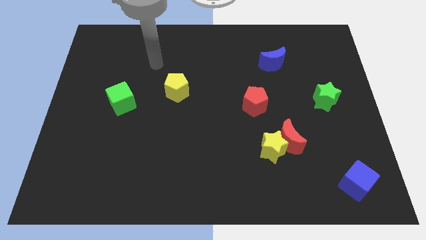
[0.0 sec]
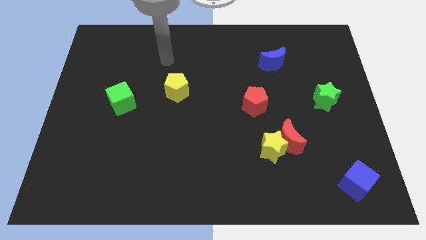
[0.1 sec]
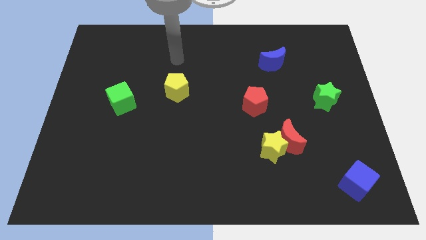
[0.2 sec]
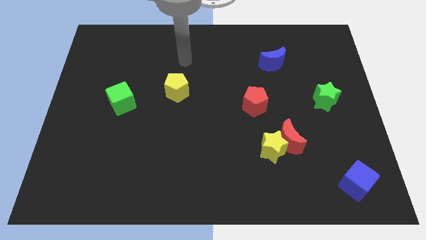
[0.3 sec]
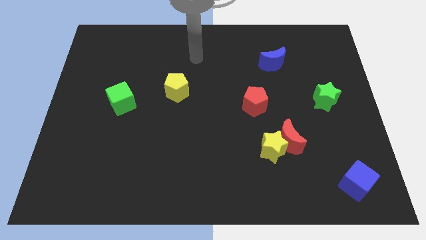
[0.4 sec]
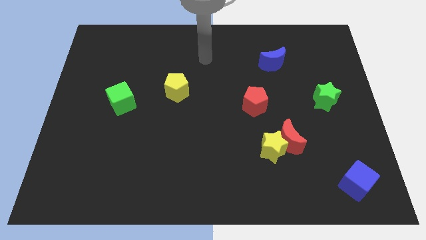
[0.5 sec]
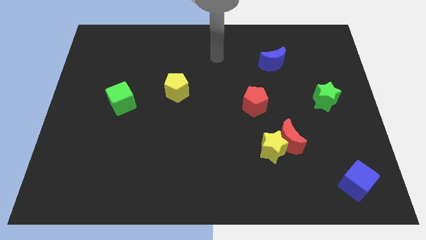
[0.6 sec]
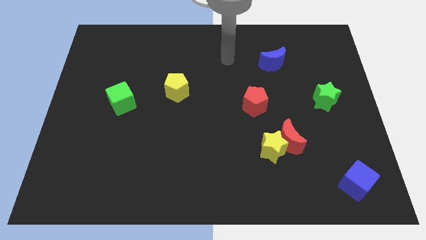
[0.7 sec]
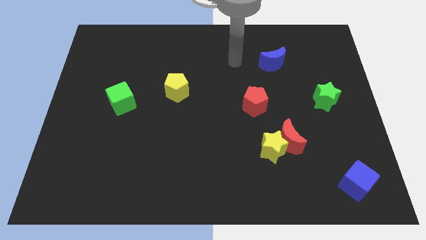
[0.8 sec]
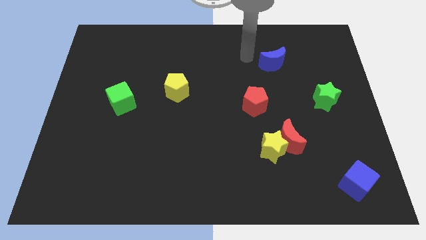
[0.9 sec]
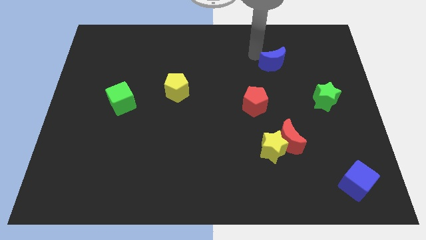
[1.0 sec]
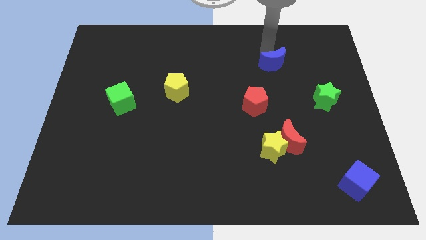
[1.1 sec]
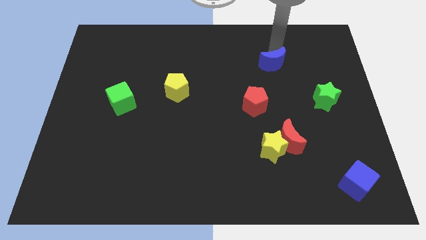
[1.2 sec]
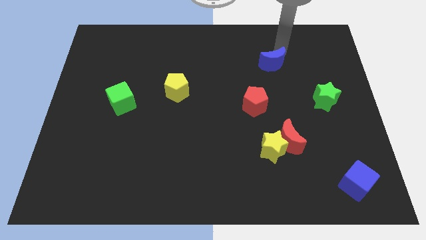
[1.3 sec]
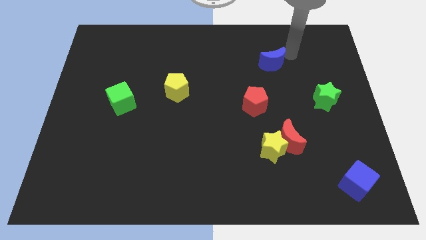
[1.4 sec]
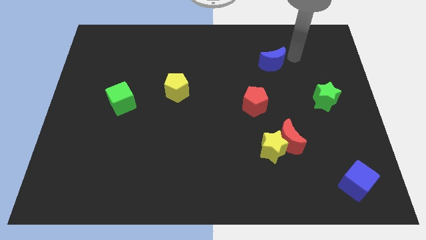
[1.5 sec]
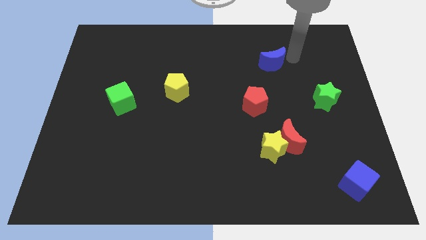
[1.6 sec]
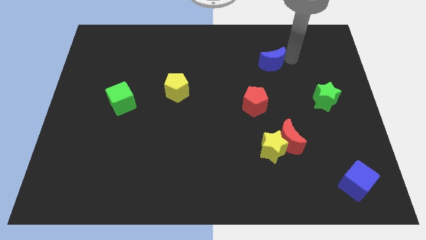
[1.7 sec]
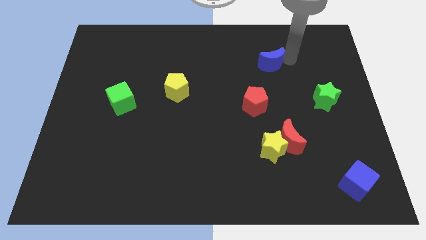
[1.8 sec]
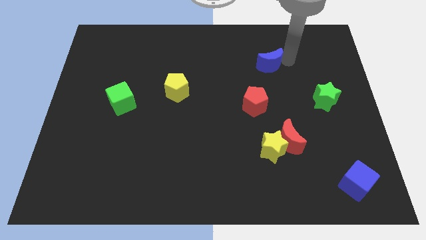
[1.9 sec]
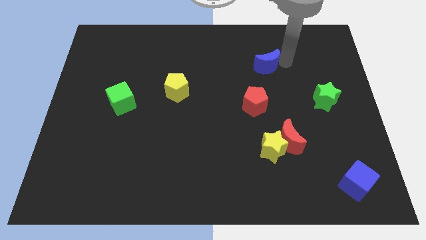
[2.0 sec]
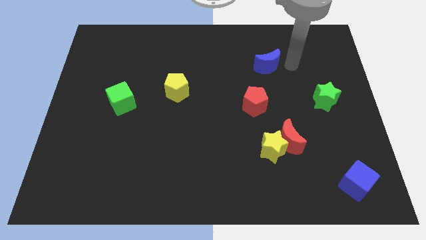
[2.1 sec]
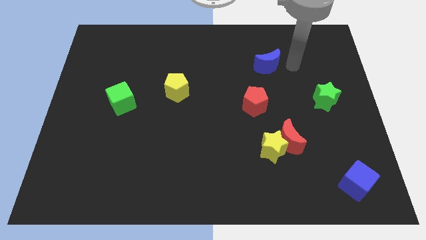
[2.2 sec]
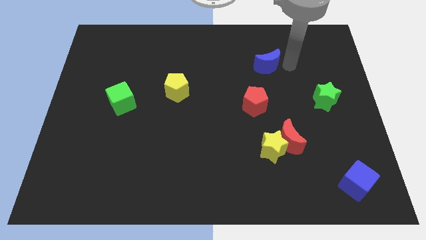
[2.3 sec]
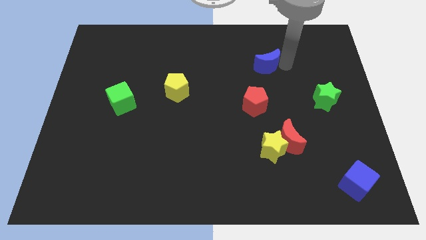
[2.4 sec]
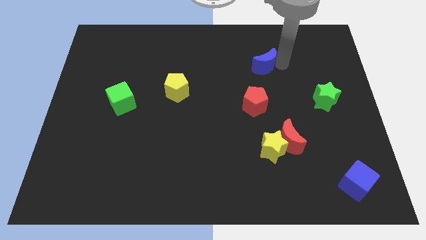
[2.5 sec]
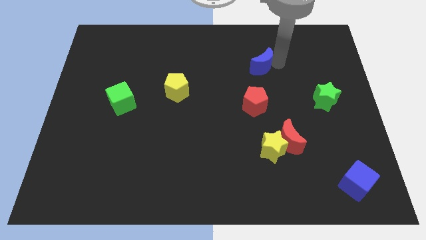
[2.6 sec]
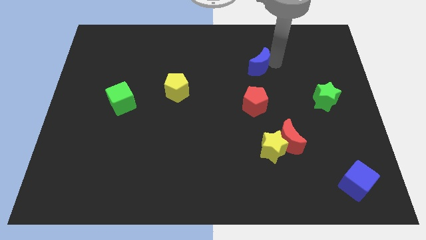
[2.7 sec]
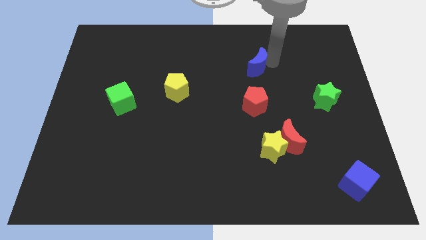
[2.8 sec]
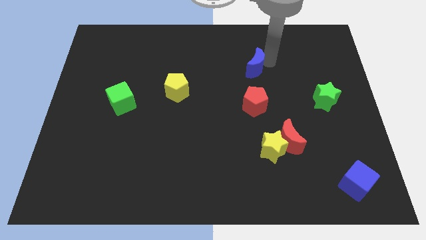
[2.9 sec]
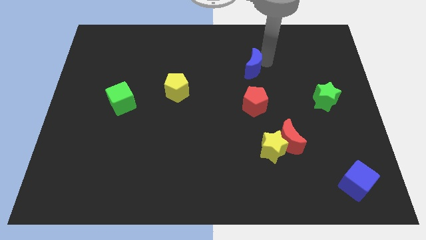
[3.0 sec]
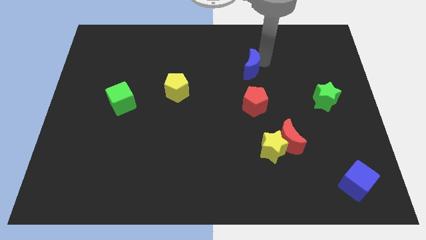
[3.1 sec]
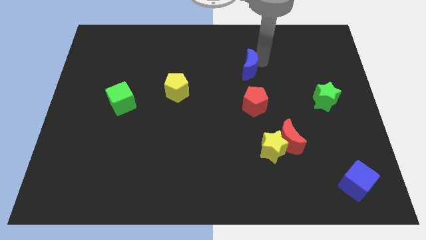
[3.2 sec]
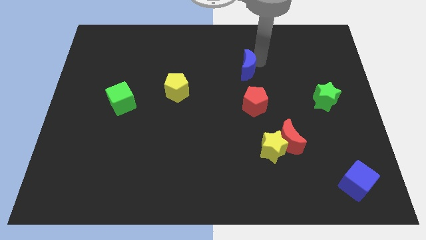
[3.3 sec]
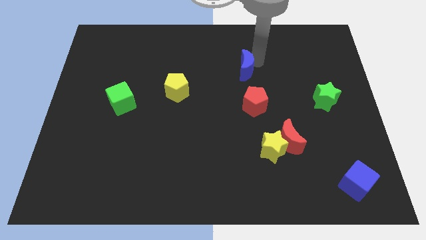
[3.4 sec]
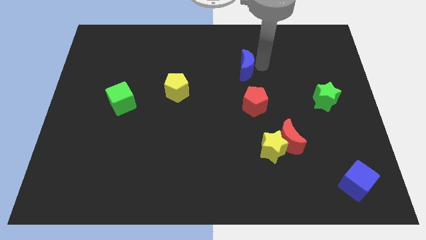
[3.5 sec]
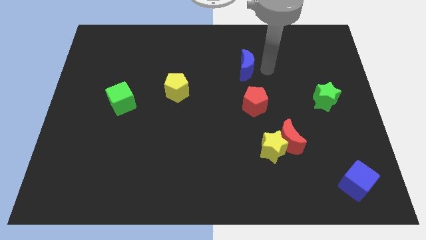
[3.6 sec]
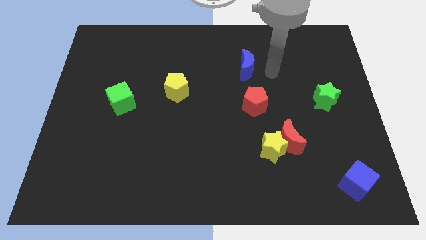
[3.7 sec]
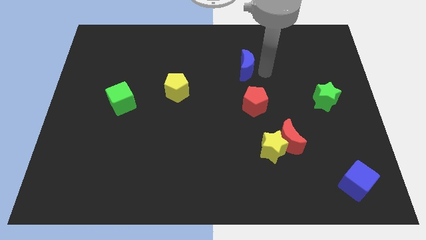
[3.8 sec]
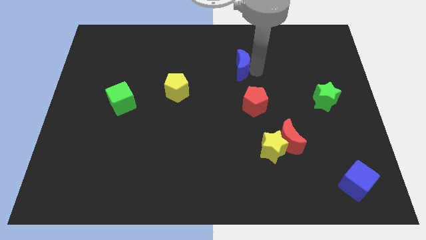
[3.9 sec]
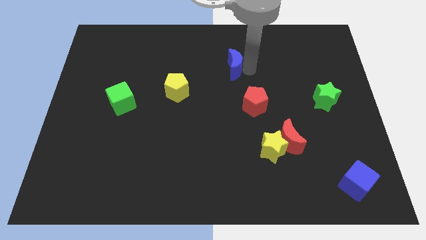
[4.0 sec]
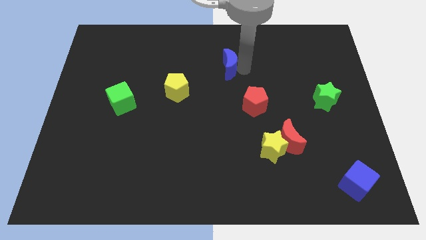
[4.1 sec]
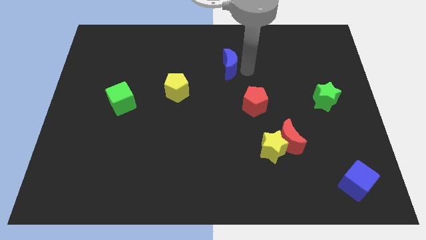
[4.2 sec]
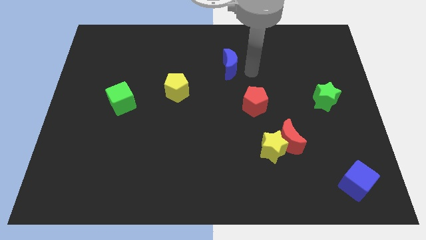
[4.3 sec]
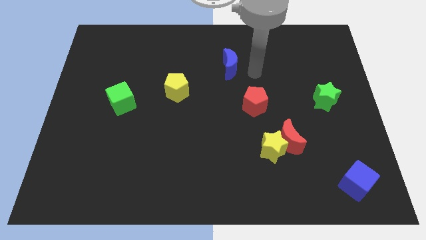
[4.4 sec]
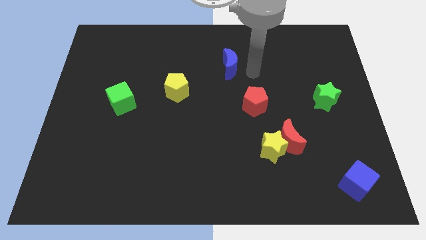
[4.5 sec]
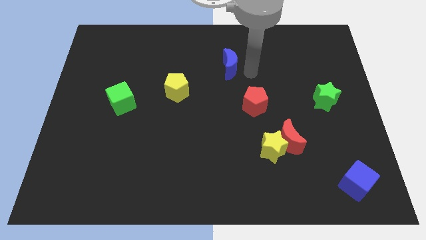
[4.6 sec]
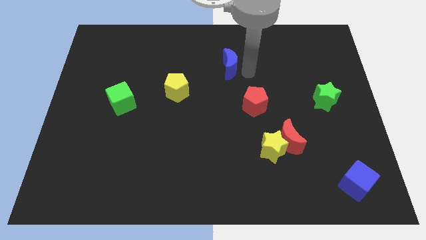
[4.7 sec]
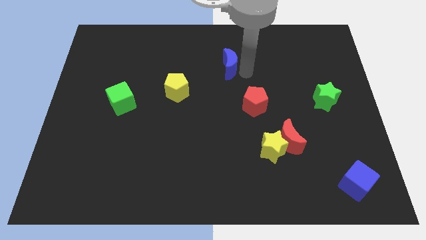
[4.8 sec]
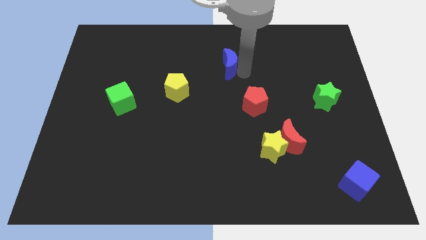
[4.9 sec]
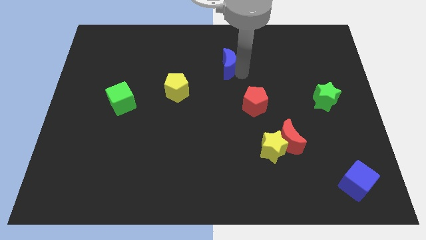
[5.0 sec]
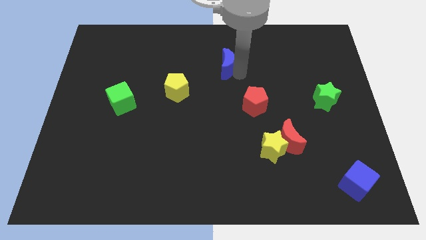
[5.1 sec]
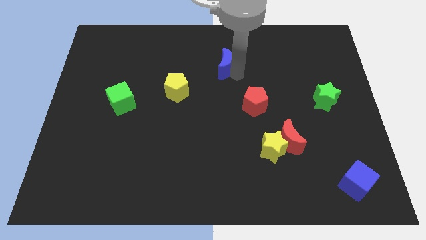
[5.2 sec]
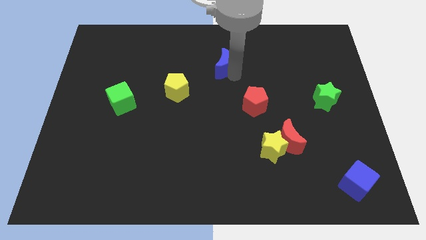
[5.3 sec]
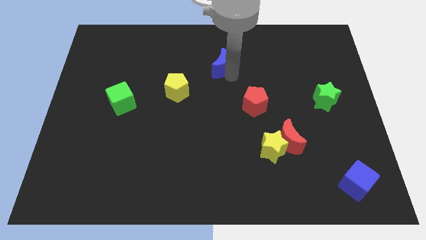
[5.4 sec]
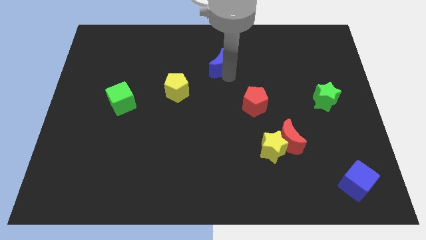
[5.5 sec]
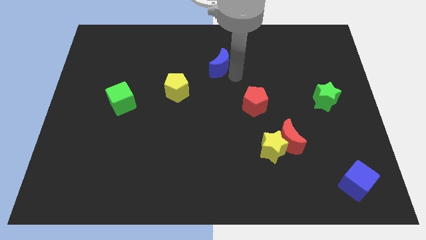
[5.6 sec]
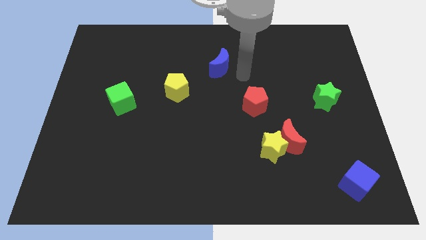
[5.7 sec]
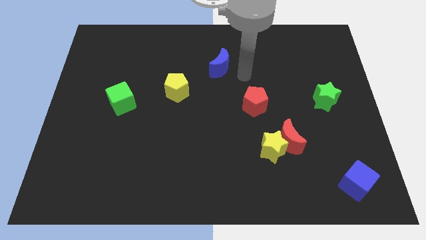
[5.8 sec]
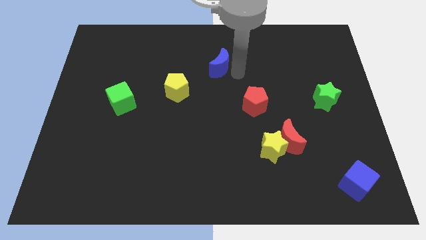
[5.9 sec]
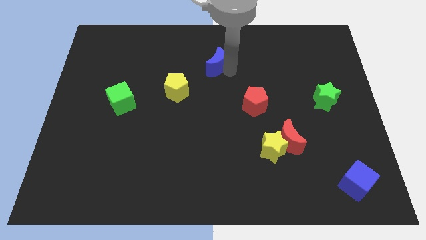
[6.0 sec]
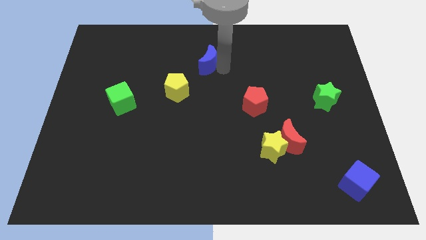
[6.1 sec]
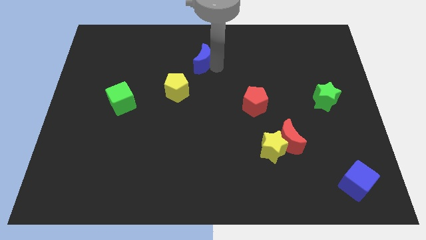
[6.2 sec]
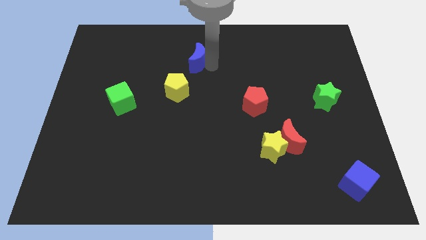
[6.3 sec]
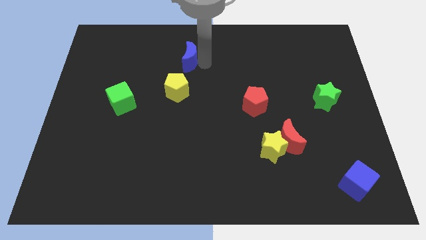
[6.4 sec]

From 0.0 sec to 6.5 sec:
push the blue moon to the left

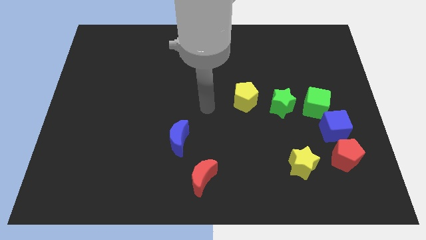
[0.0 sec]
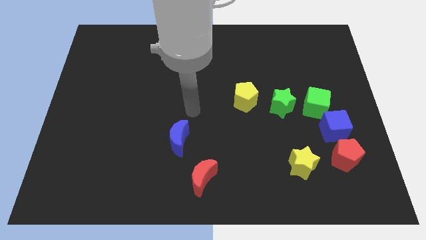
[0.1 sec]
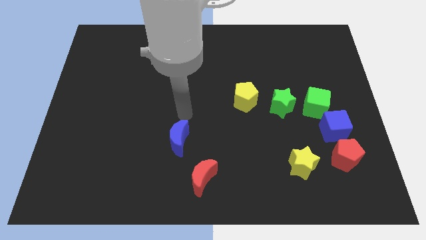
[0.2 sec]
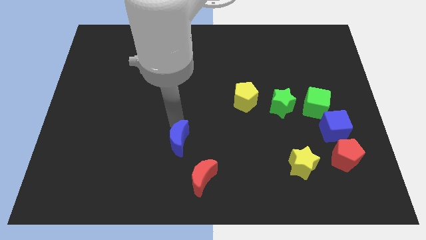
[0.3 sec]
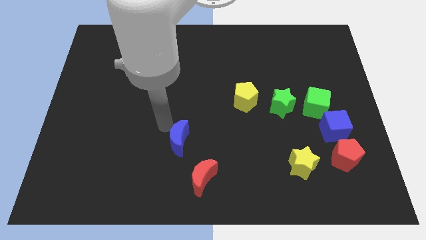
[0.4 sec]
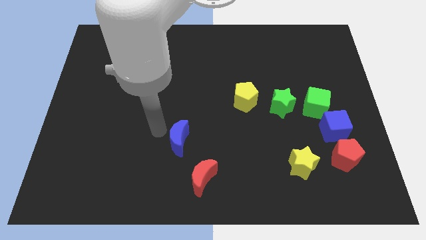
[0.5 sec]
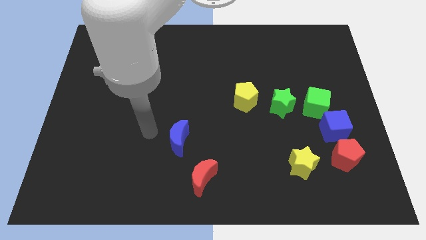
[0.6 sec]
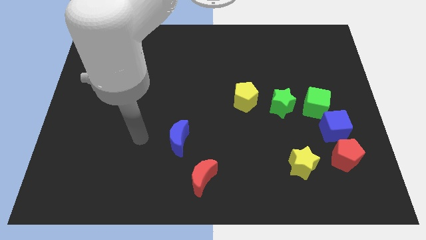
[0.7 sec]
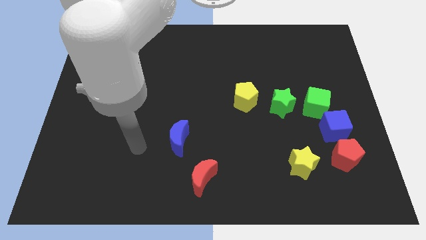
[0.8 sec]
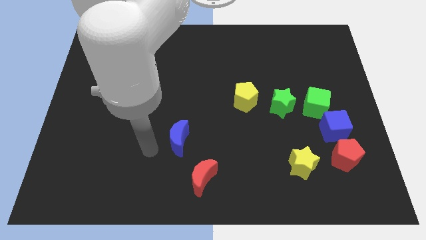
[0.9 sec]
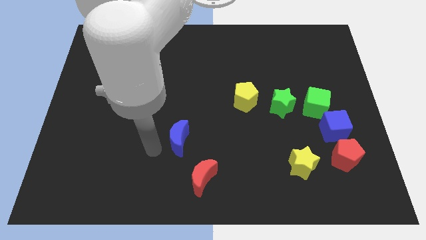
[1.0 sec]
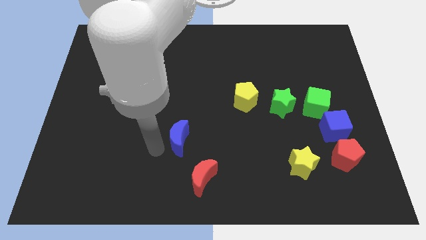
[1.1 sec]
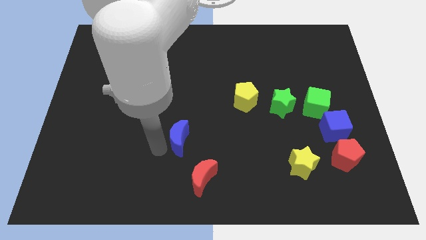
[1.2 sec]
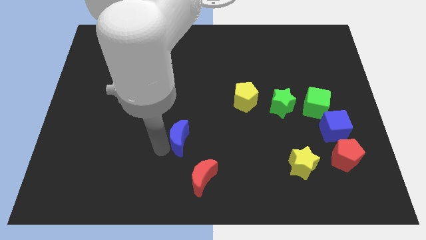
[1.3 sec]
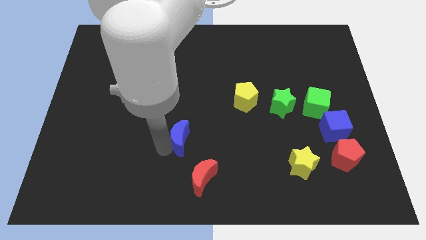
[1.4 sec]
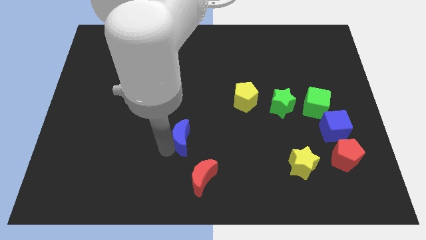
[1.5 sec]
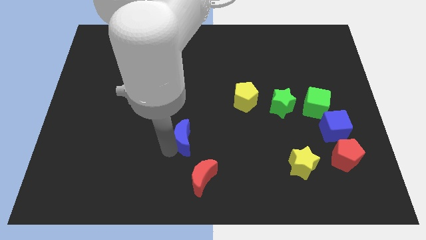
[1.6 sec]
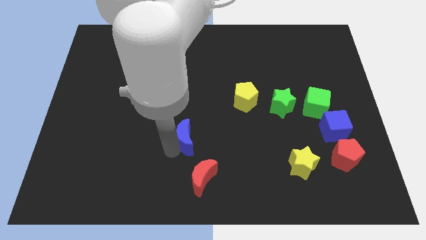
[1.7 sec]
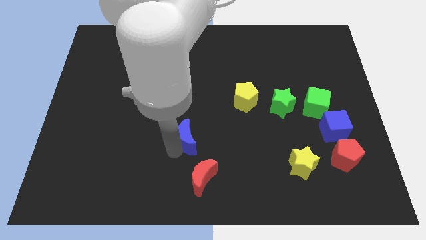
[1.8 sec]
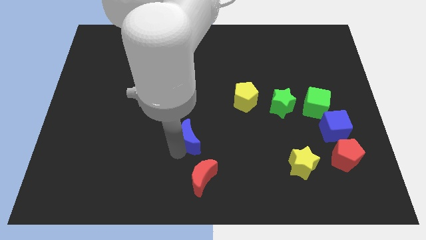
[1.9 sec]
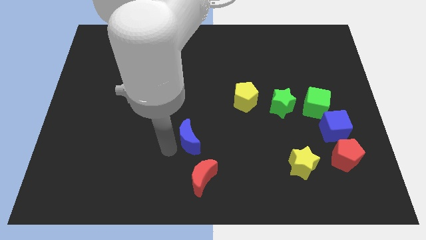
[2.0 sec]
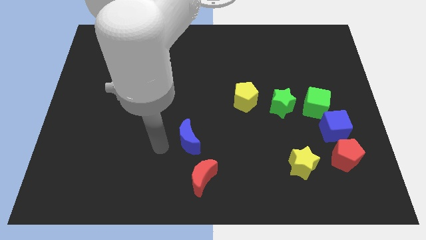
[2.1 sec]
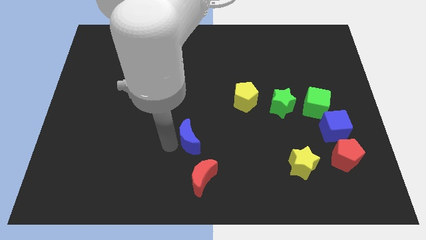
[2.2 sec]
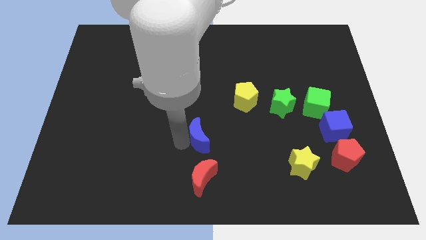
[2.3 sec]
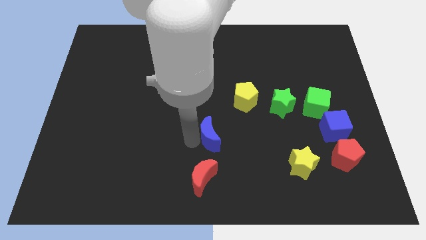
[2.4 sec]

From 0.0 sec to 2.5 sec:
slide the blue moon slightly right
